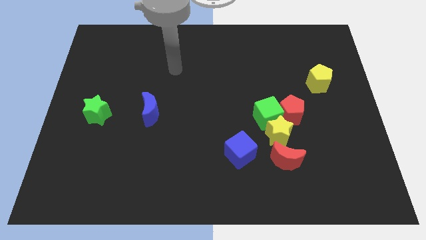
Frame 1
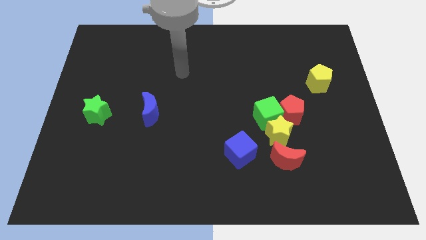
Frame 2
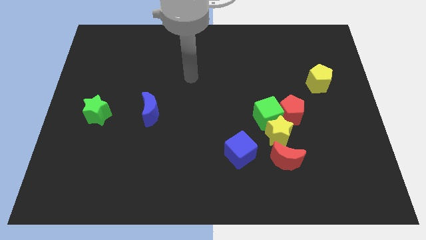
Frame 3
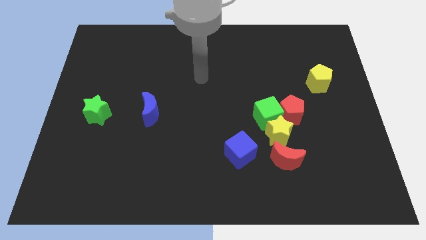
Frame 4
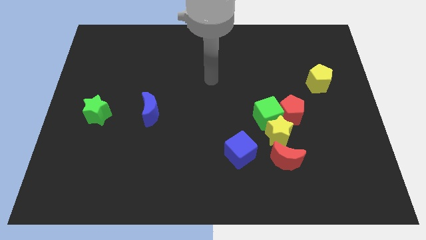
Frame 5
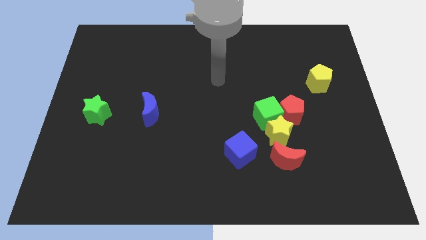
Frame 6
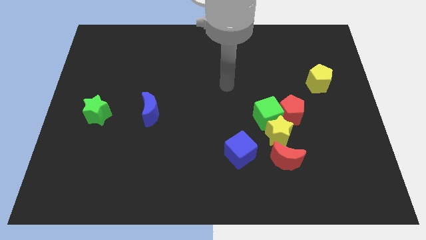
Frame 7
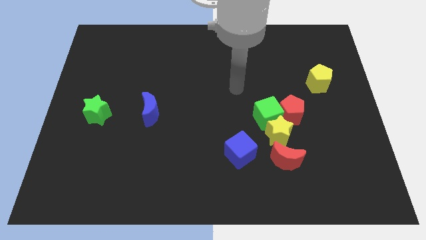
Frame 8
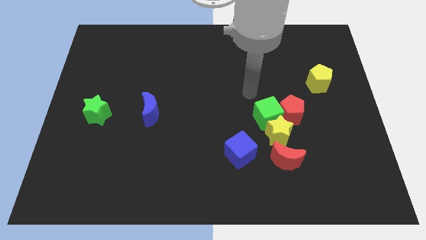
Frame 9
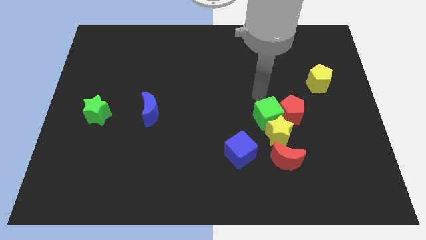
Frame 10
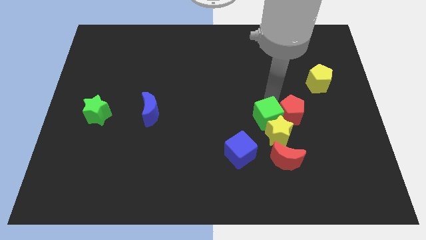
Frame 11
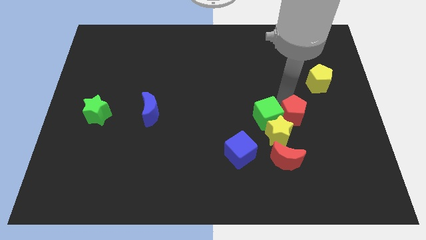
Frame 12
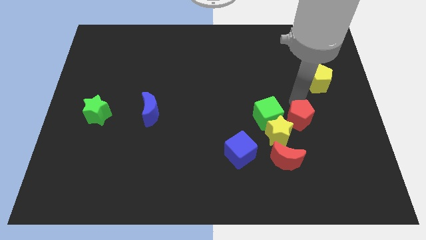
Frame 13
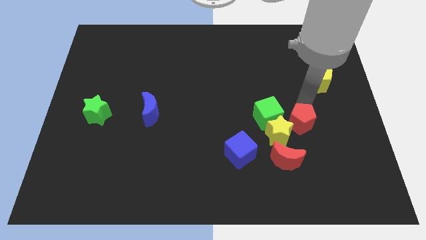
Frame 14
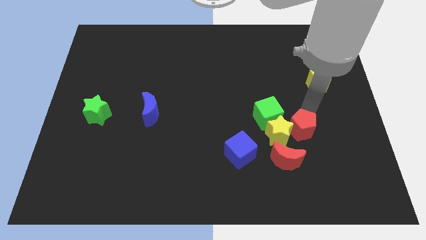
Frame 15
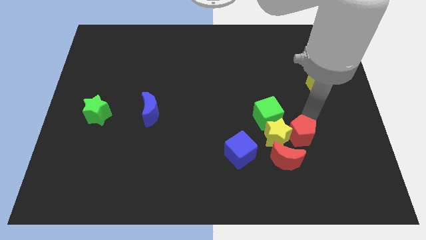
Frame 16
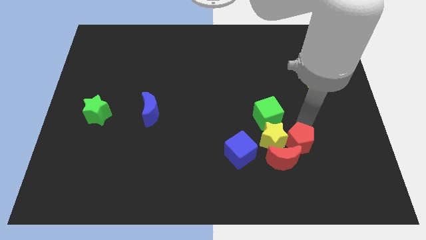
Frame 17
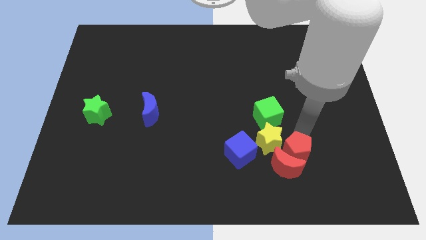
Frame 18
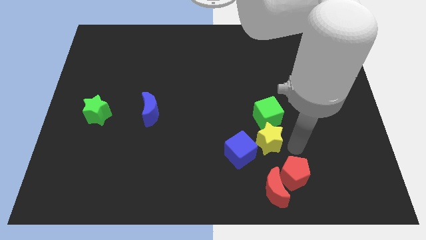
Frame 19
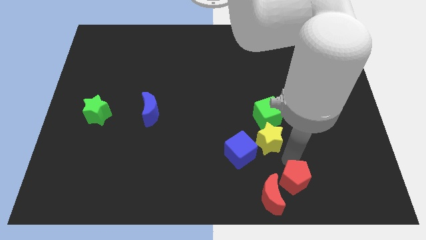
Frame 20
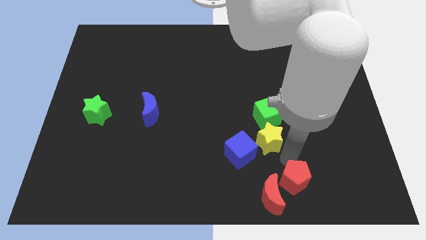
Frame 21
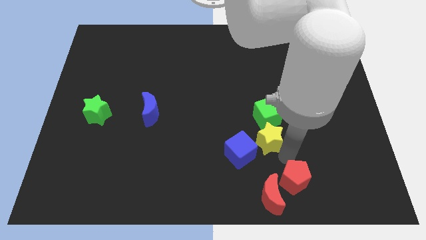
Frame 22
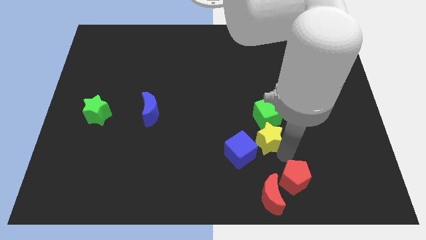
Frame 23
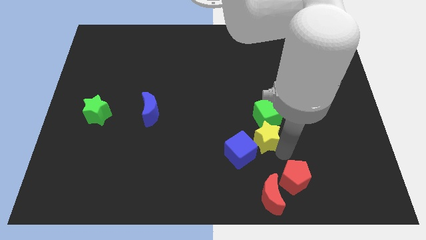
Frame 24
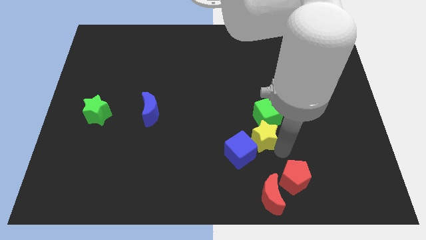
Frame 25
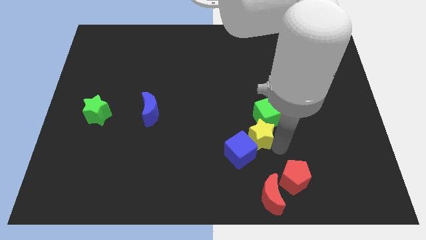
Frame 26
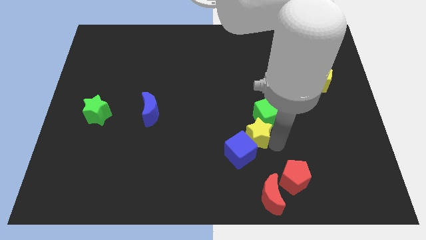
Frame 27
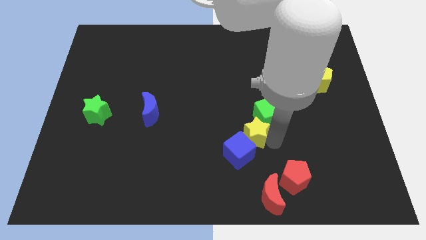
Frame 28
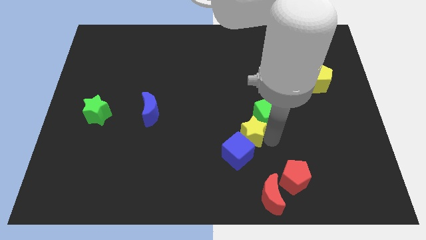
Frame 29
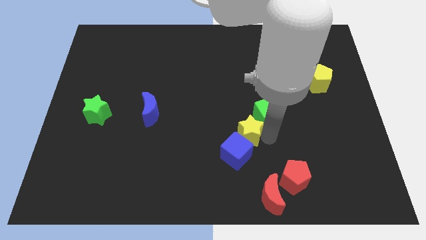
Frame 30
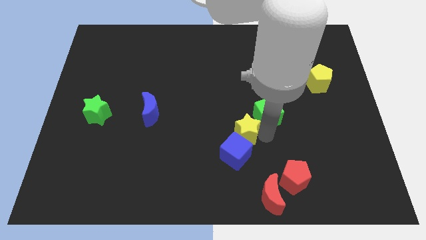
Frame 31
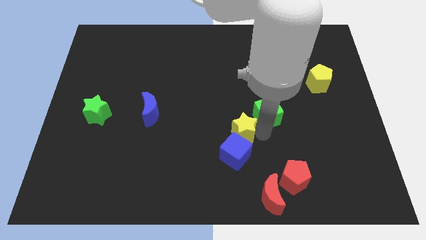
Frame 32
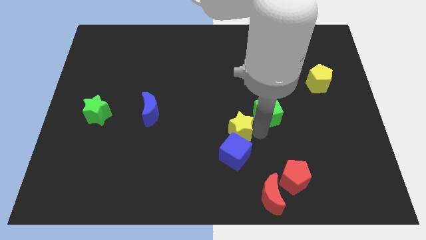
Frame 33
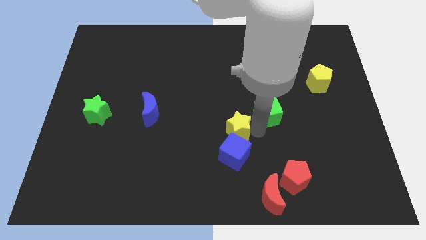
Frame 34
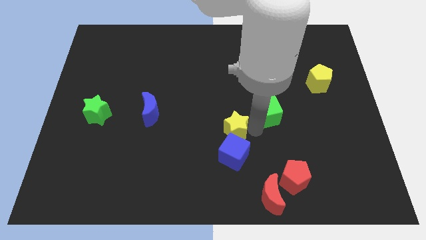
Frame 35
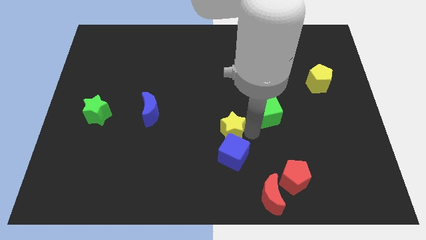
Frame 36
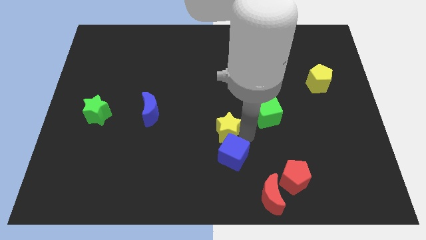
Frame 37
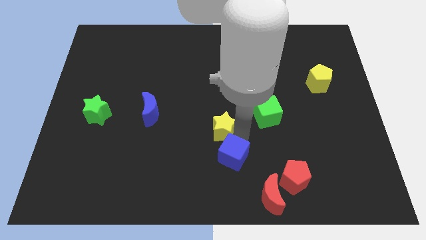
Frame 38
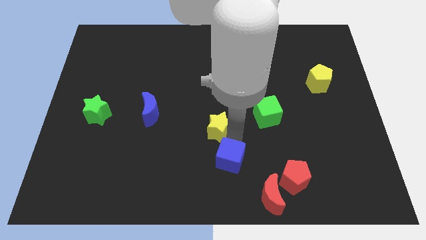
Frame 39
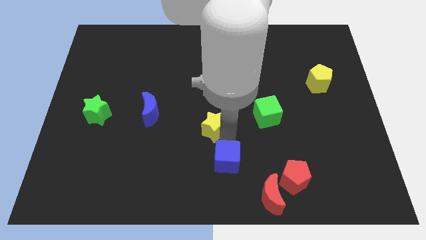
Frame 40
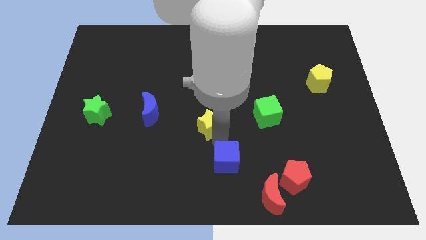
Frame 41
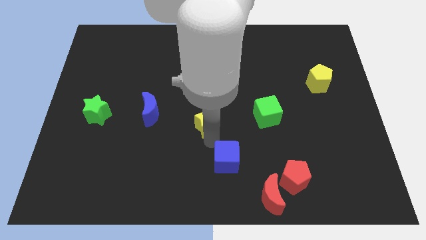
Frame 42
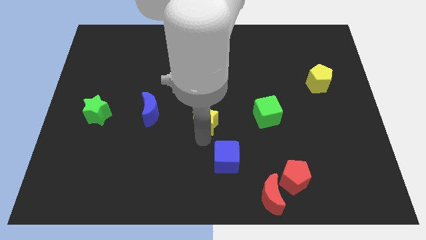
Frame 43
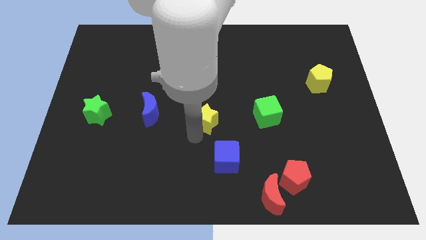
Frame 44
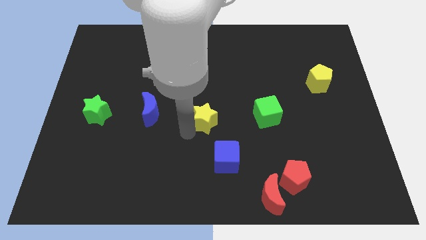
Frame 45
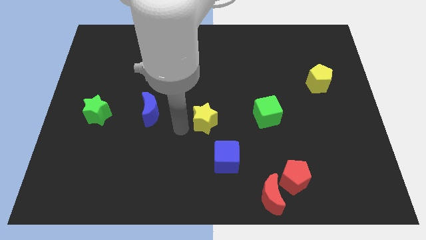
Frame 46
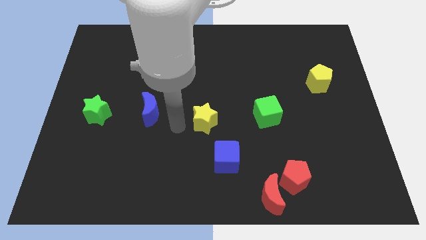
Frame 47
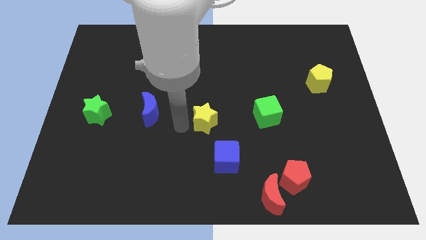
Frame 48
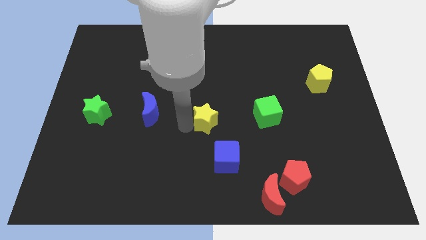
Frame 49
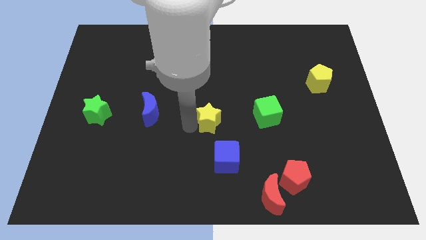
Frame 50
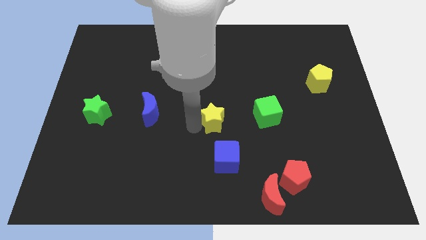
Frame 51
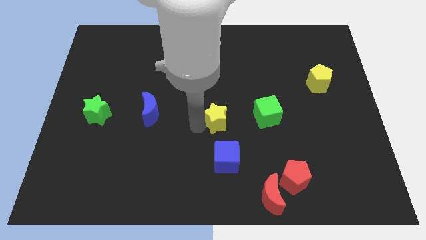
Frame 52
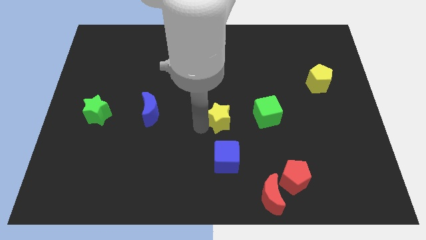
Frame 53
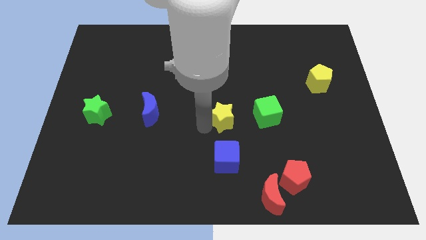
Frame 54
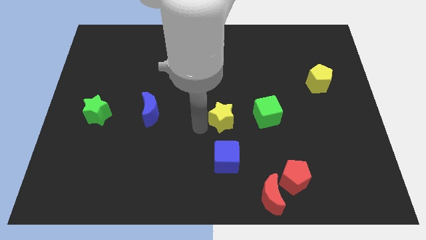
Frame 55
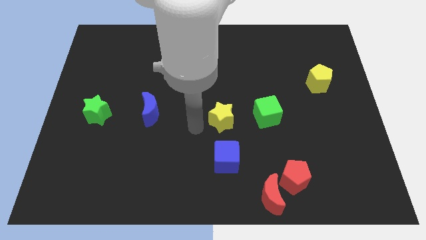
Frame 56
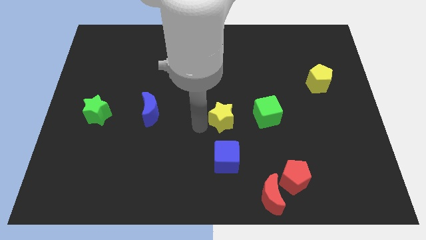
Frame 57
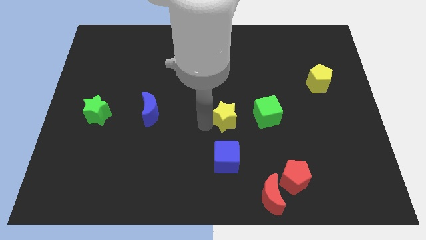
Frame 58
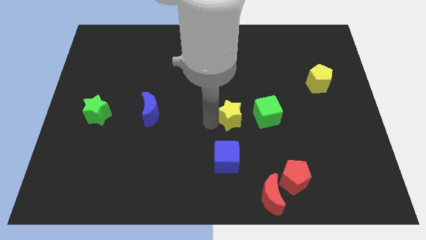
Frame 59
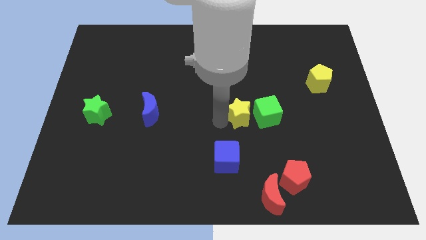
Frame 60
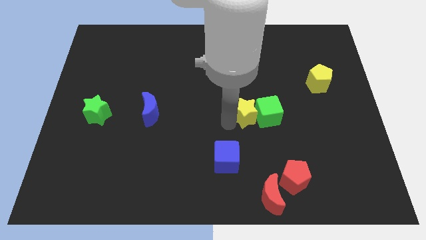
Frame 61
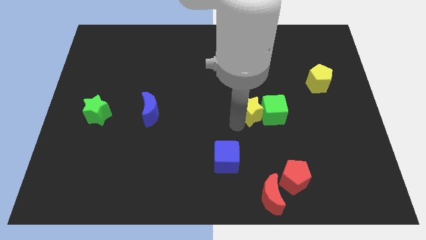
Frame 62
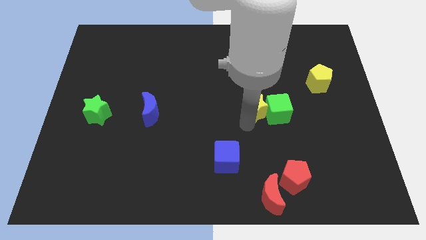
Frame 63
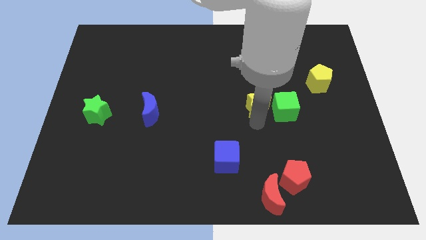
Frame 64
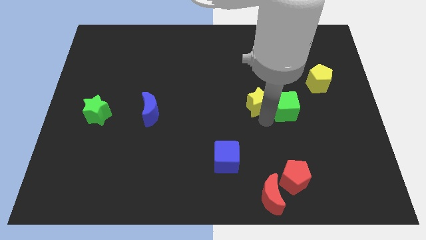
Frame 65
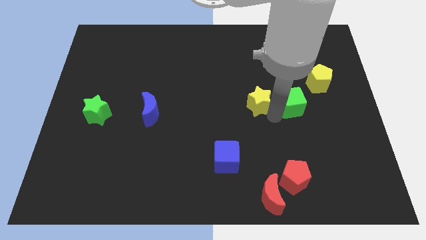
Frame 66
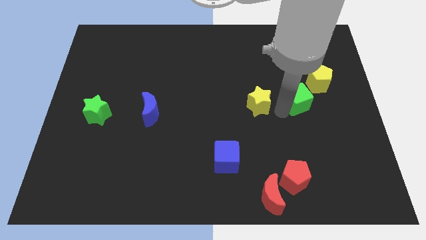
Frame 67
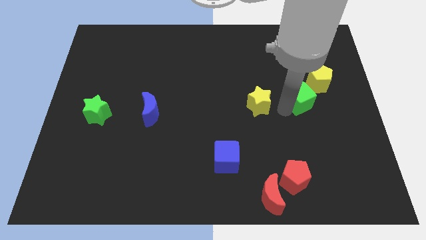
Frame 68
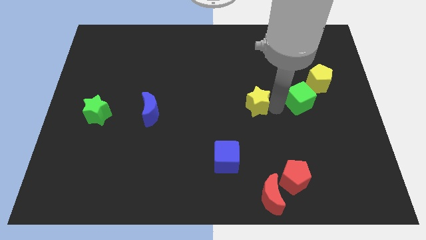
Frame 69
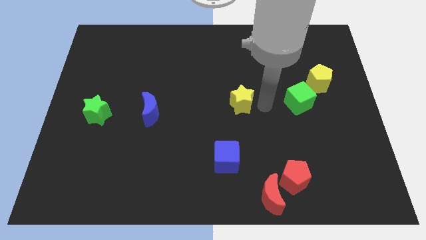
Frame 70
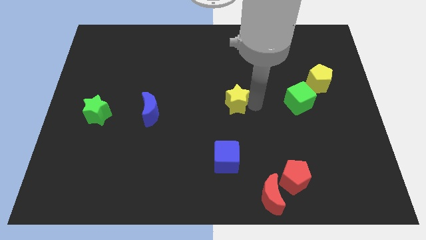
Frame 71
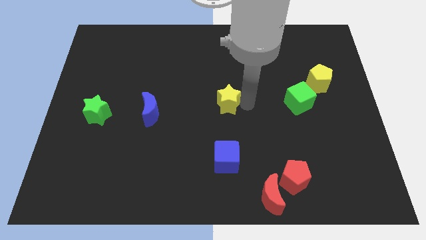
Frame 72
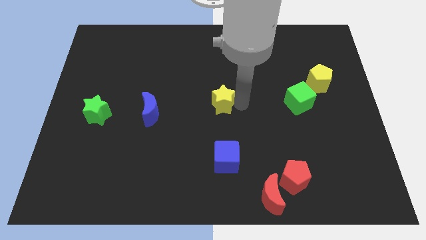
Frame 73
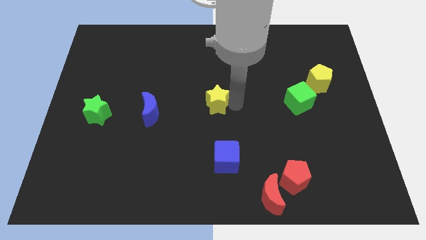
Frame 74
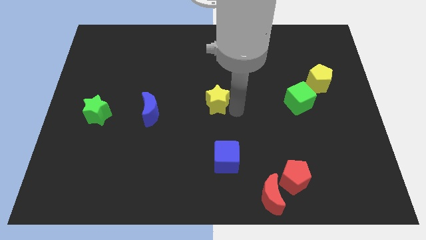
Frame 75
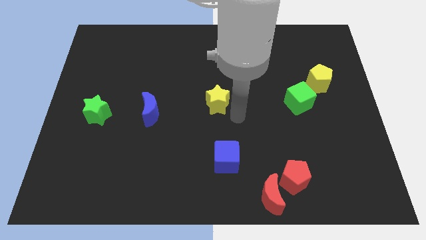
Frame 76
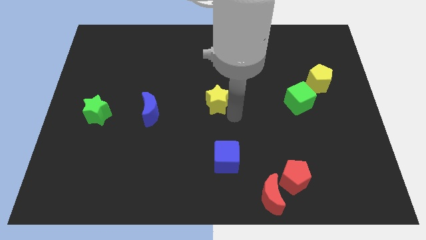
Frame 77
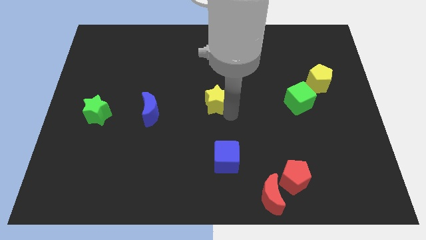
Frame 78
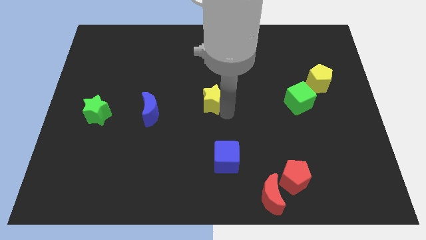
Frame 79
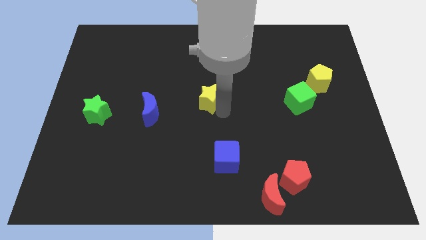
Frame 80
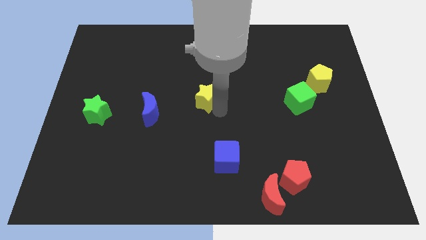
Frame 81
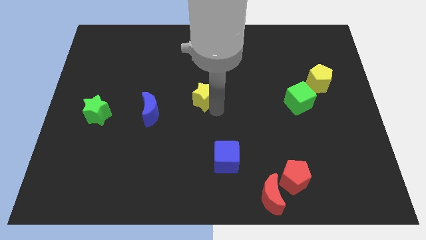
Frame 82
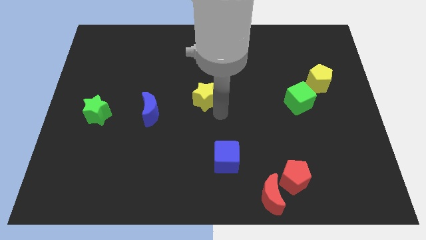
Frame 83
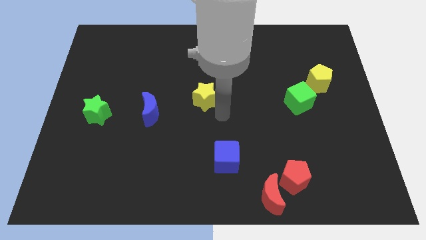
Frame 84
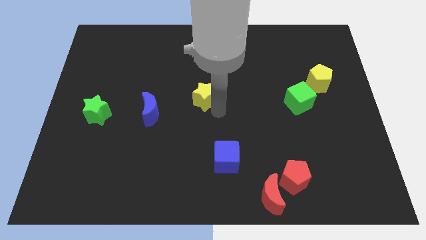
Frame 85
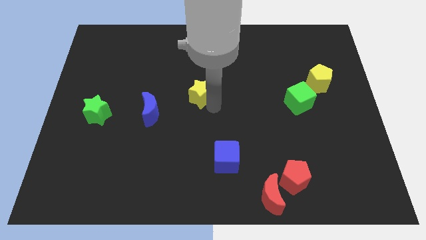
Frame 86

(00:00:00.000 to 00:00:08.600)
push the yellow star diagonally up and left
